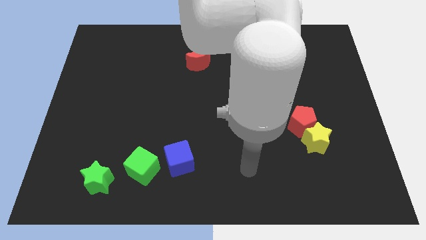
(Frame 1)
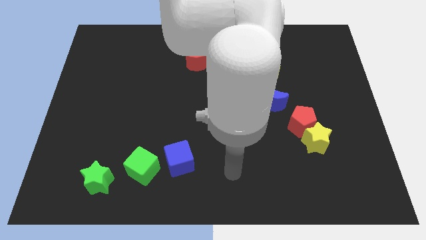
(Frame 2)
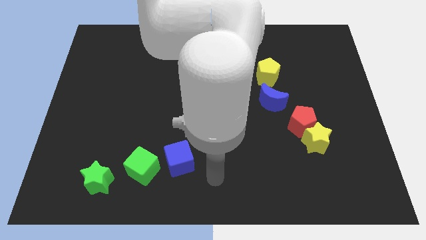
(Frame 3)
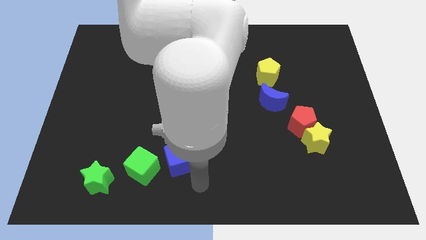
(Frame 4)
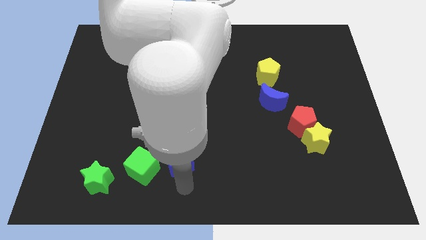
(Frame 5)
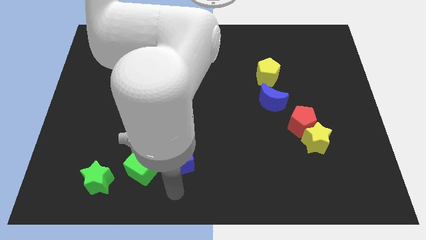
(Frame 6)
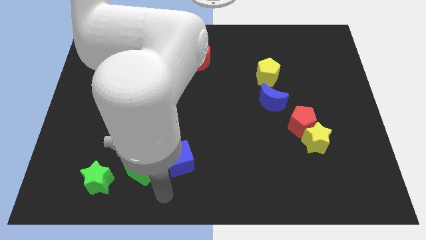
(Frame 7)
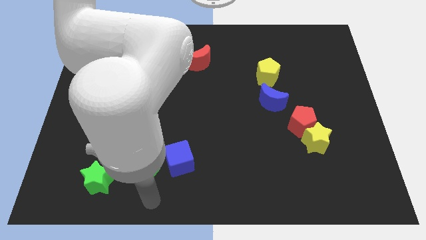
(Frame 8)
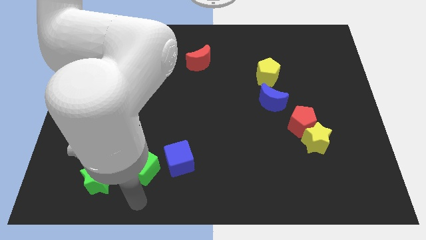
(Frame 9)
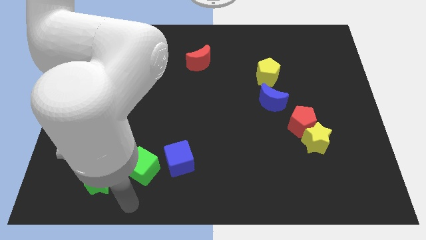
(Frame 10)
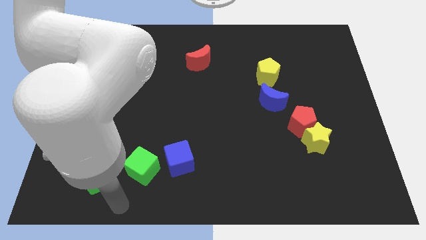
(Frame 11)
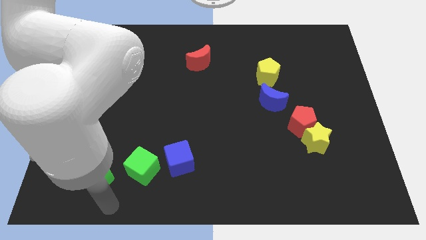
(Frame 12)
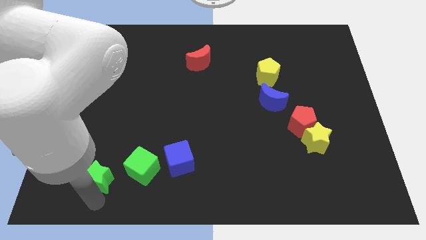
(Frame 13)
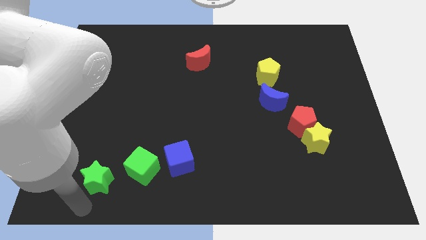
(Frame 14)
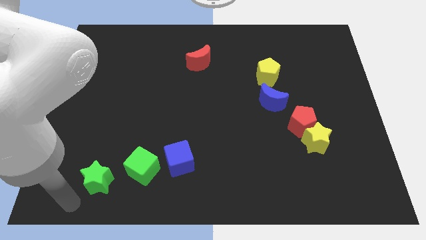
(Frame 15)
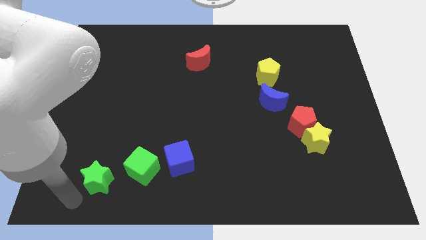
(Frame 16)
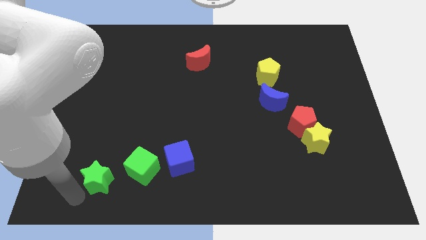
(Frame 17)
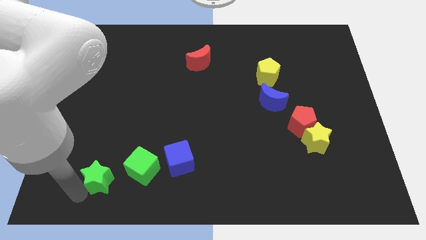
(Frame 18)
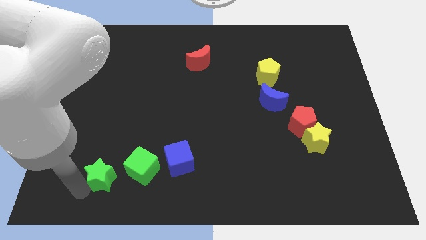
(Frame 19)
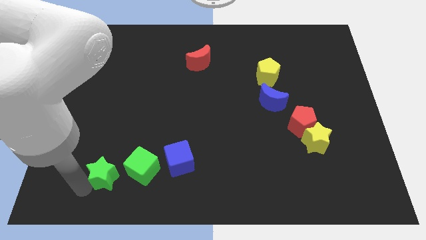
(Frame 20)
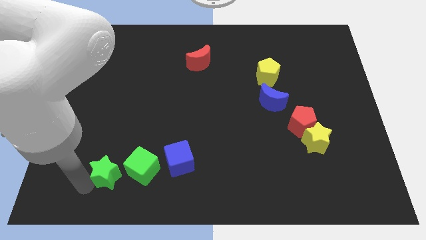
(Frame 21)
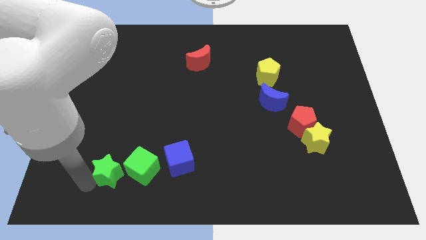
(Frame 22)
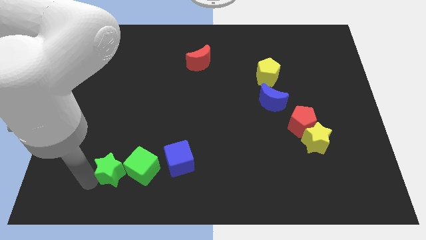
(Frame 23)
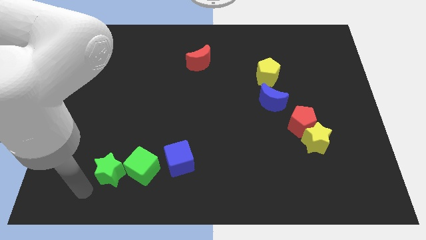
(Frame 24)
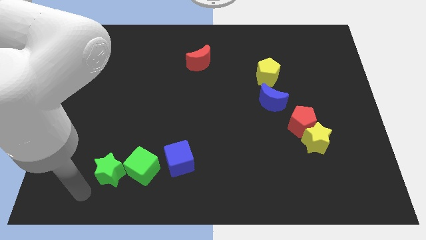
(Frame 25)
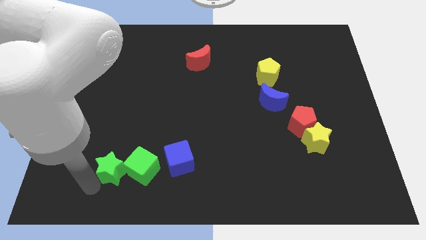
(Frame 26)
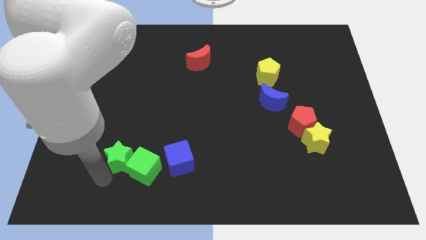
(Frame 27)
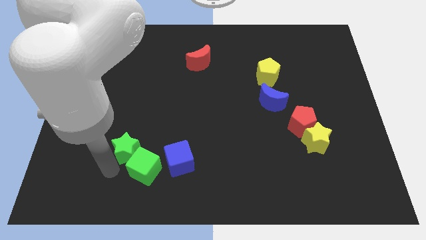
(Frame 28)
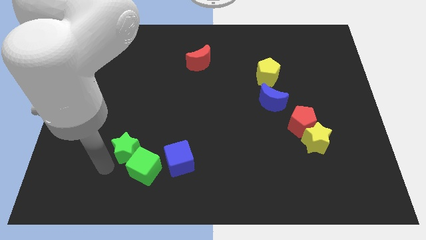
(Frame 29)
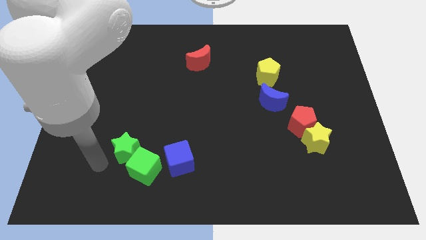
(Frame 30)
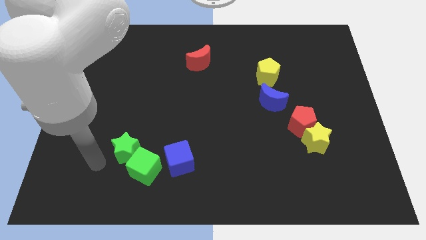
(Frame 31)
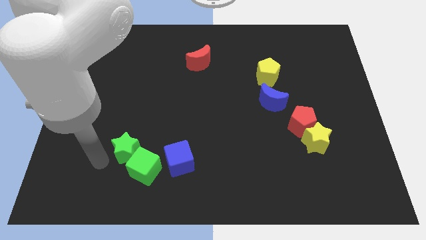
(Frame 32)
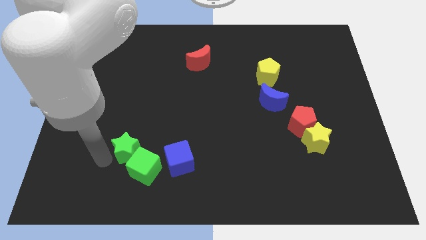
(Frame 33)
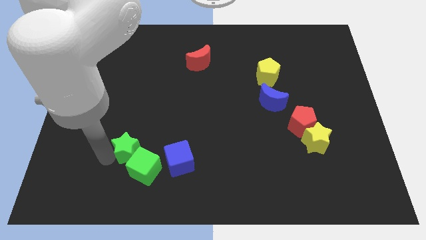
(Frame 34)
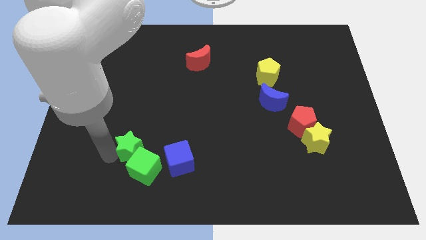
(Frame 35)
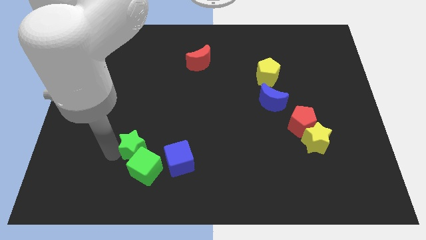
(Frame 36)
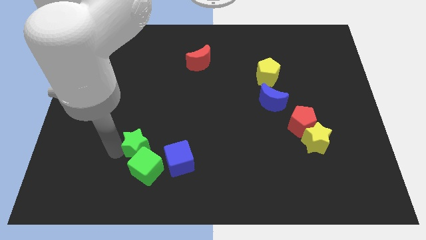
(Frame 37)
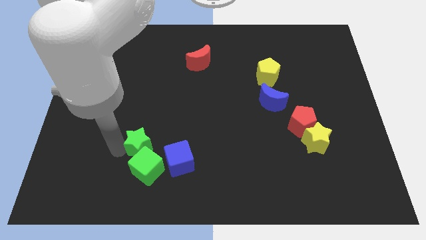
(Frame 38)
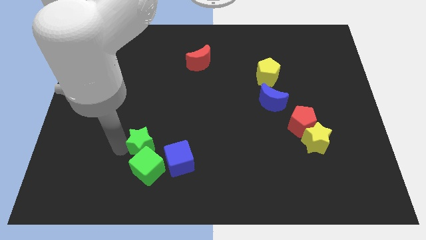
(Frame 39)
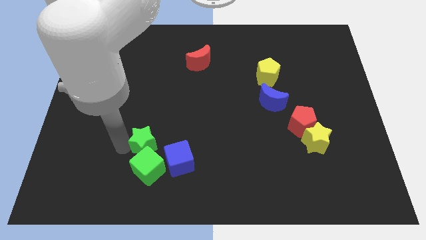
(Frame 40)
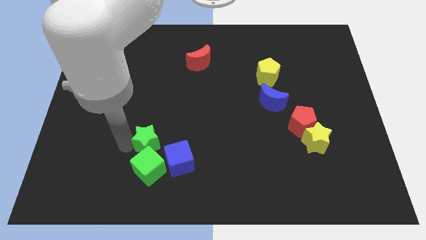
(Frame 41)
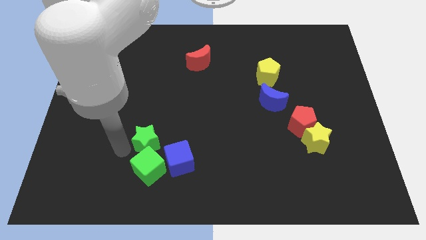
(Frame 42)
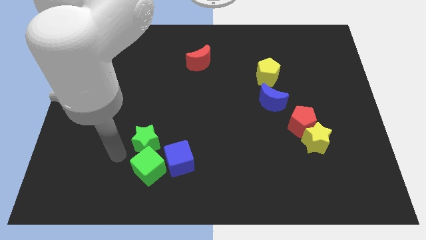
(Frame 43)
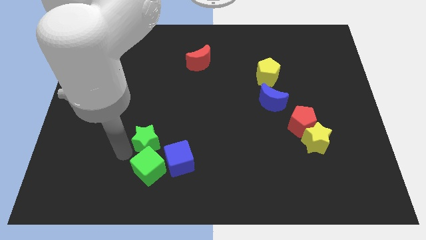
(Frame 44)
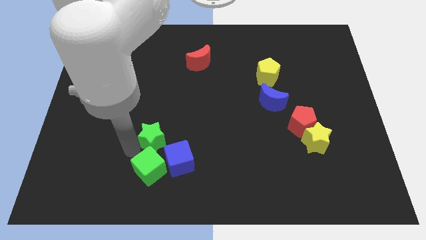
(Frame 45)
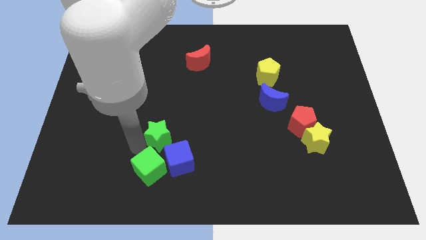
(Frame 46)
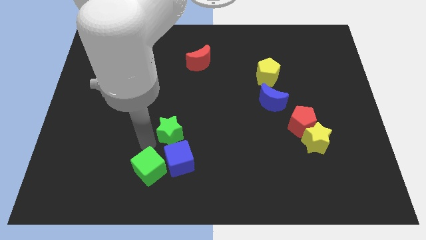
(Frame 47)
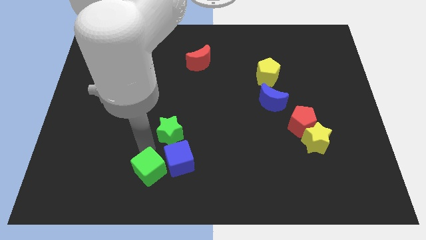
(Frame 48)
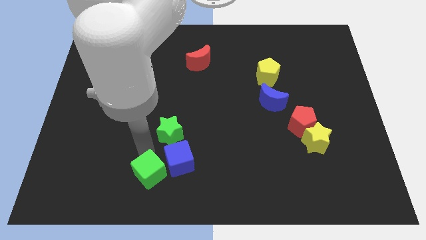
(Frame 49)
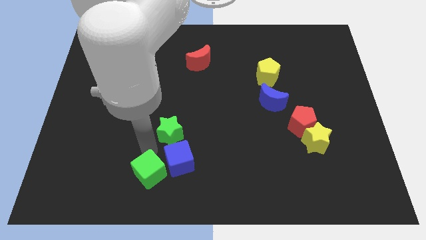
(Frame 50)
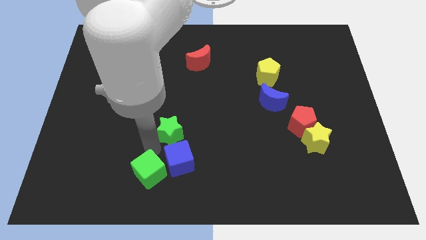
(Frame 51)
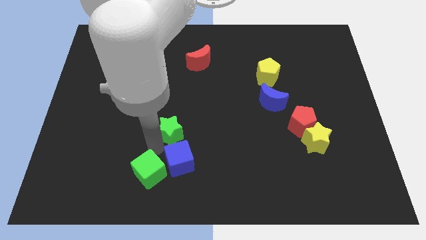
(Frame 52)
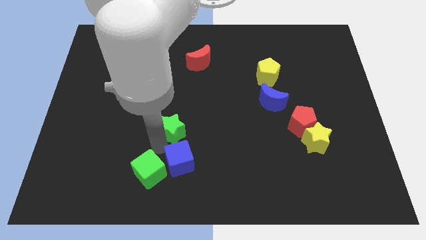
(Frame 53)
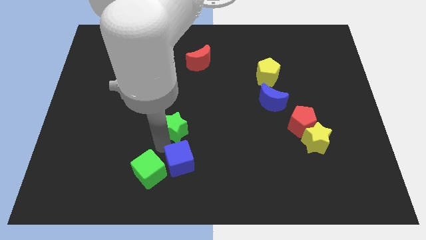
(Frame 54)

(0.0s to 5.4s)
put the green star to the middle

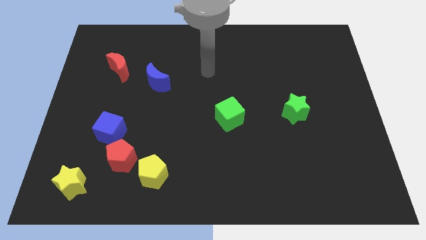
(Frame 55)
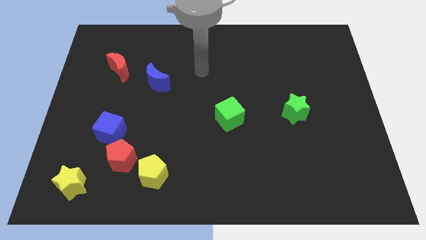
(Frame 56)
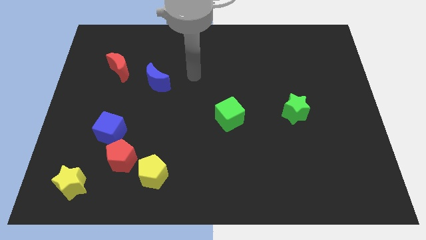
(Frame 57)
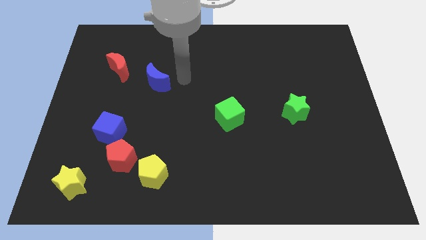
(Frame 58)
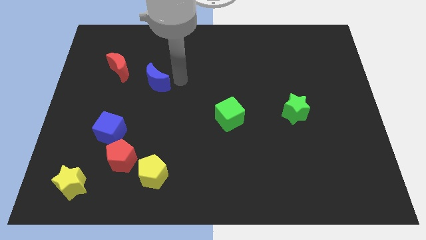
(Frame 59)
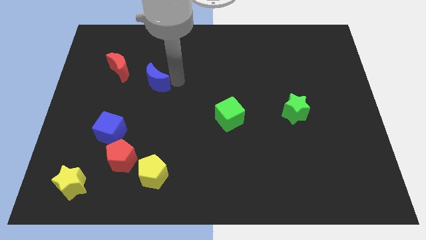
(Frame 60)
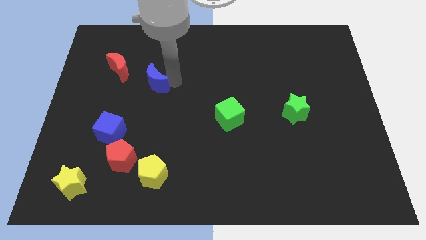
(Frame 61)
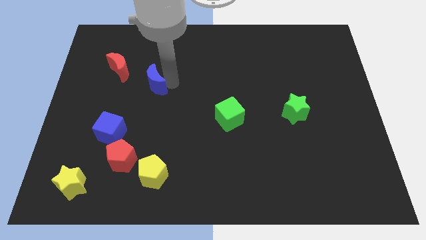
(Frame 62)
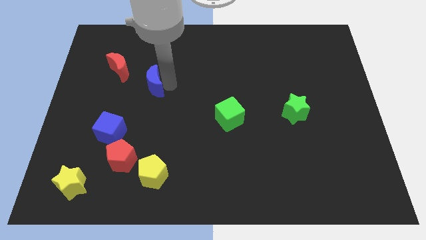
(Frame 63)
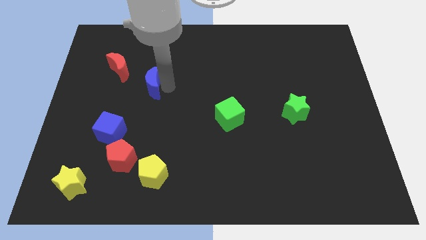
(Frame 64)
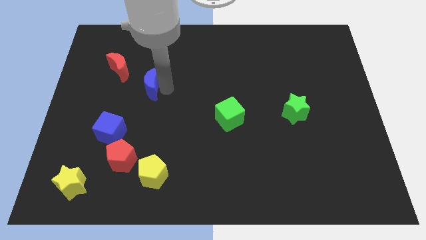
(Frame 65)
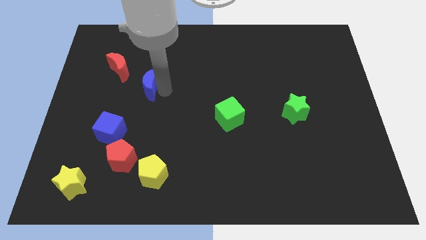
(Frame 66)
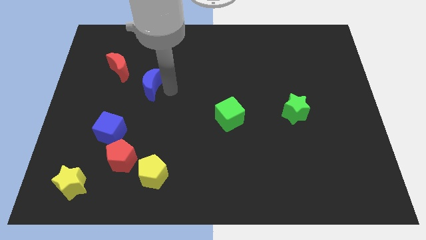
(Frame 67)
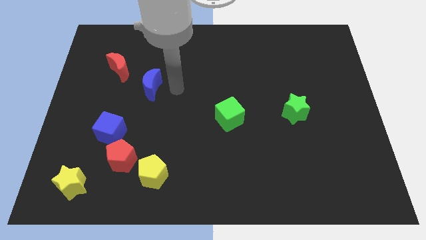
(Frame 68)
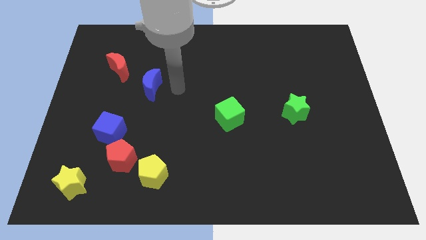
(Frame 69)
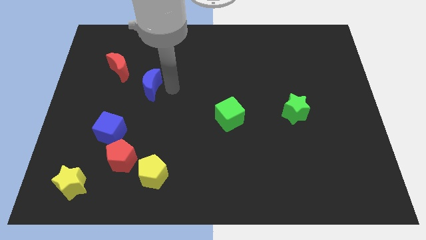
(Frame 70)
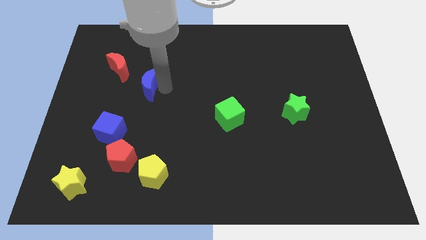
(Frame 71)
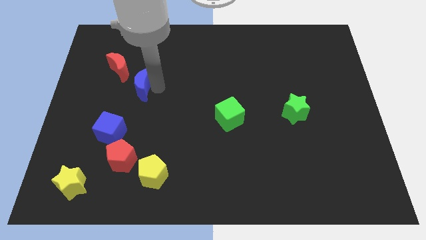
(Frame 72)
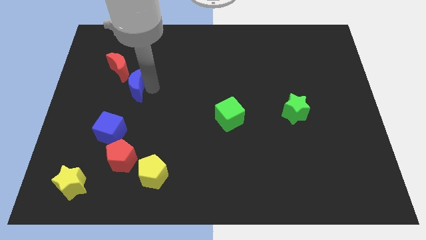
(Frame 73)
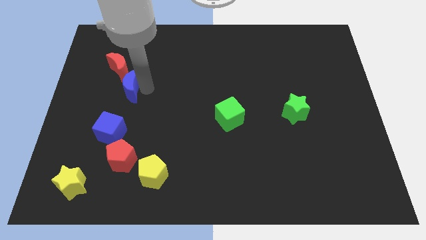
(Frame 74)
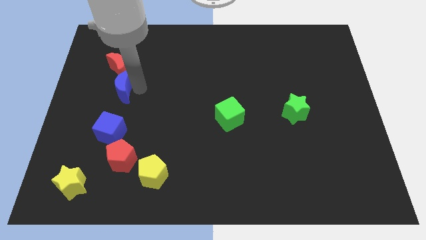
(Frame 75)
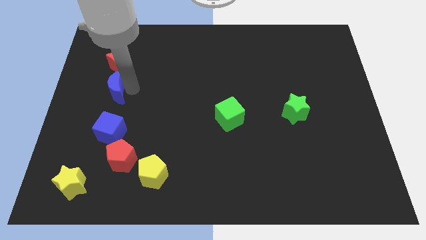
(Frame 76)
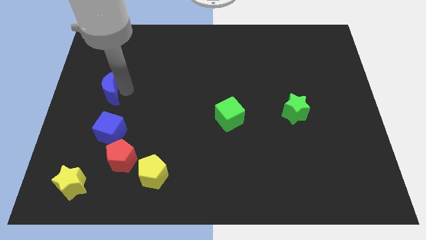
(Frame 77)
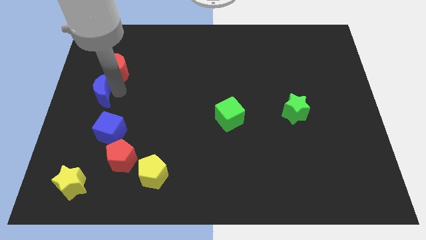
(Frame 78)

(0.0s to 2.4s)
move the blue moon to the left side of the board

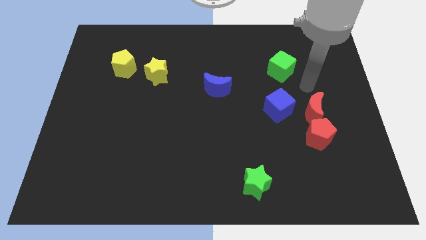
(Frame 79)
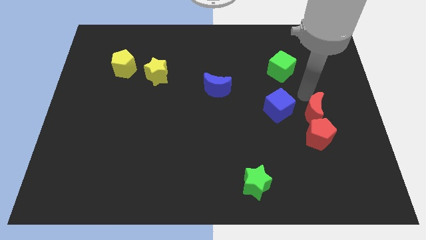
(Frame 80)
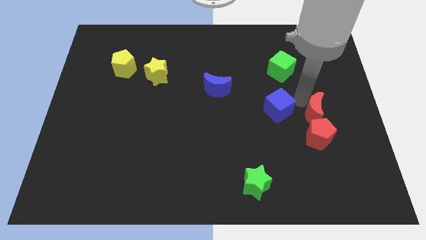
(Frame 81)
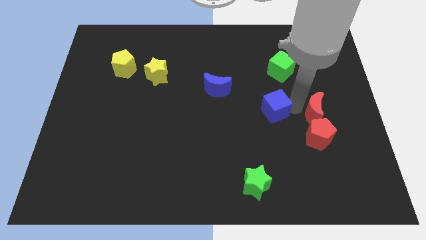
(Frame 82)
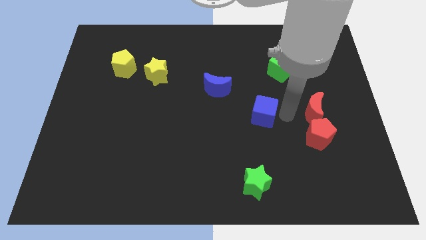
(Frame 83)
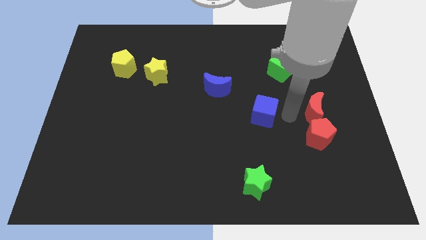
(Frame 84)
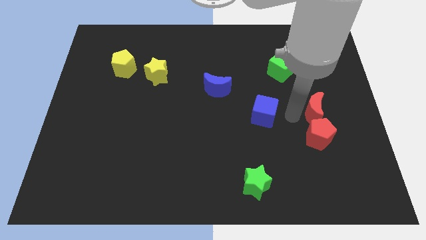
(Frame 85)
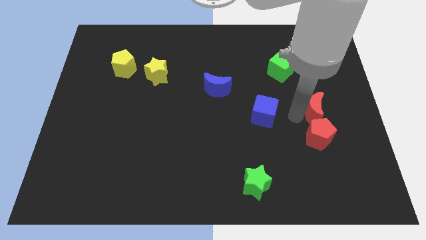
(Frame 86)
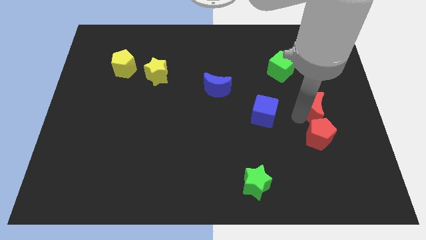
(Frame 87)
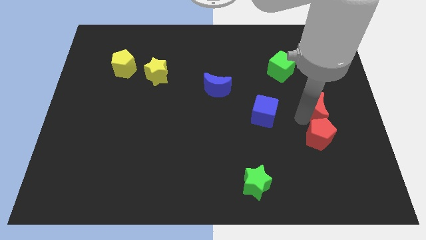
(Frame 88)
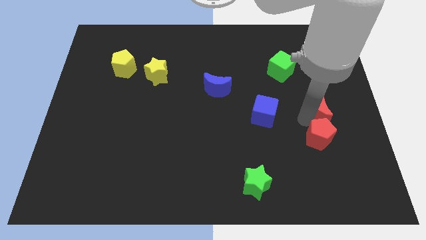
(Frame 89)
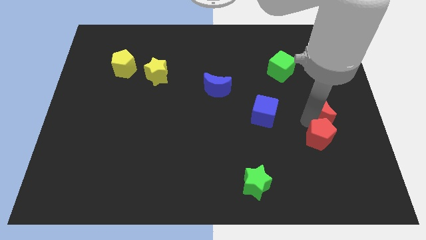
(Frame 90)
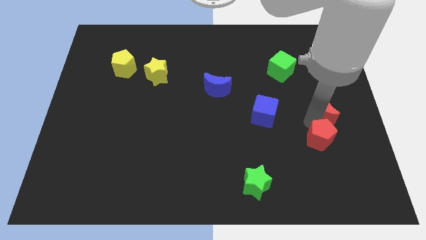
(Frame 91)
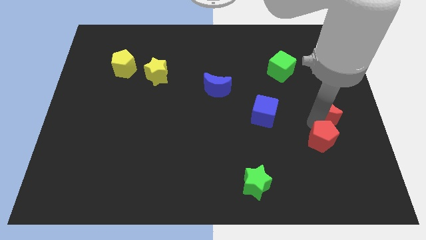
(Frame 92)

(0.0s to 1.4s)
push the red moon to the center right
